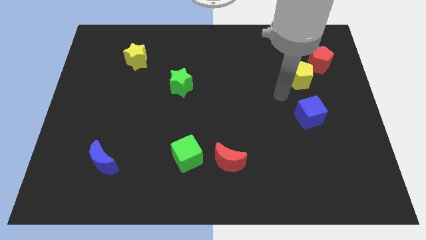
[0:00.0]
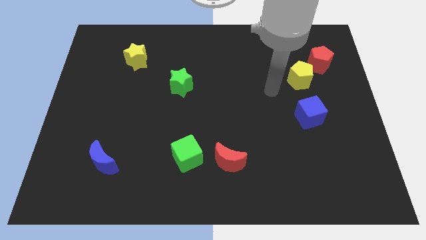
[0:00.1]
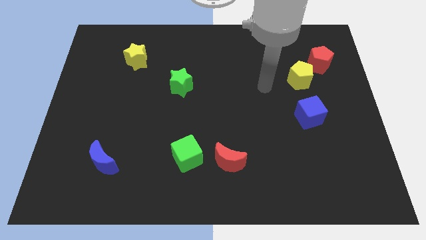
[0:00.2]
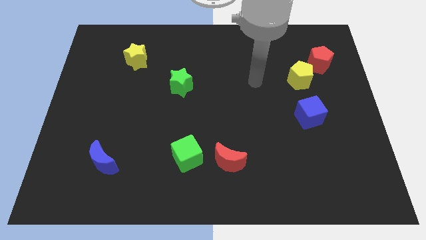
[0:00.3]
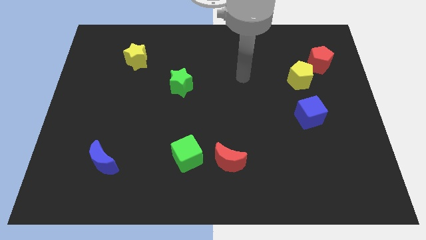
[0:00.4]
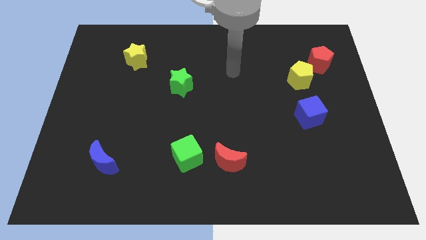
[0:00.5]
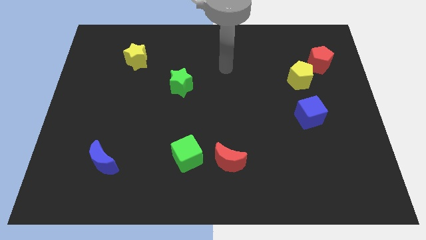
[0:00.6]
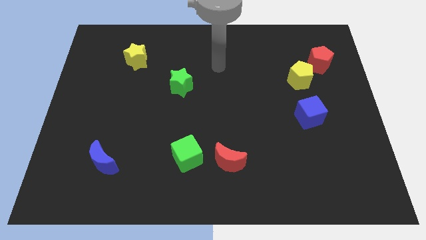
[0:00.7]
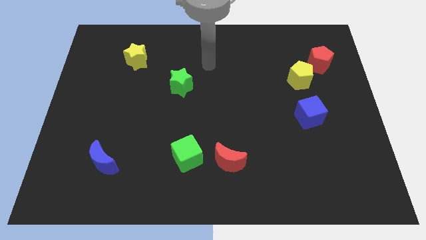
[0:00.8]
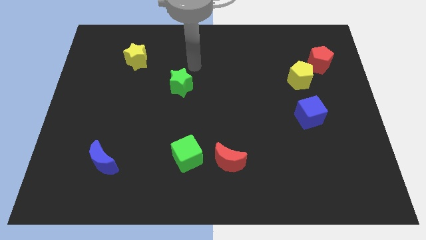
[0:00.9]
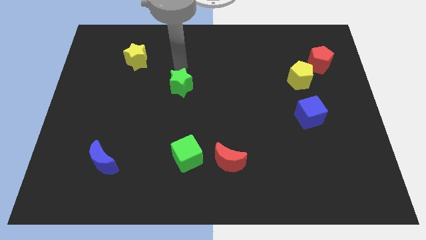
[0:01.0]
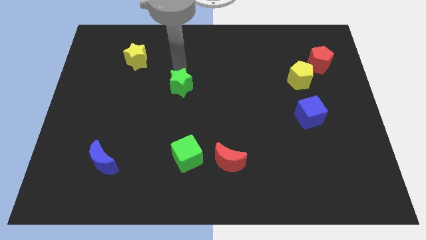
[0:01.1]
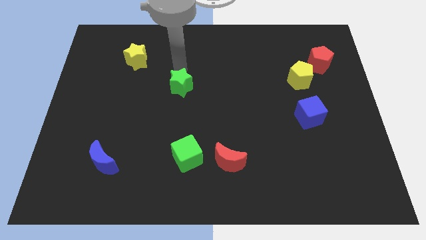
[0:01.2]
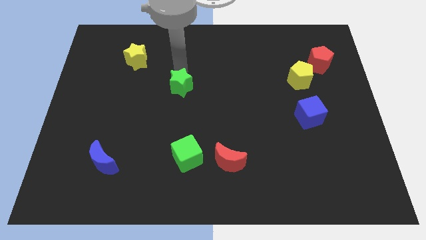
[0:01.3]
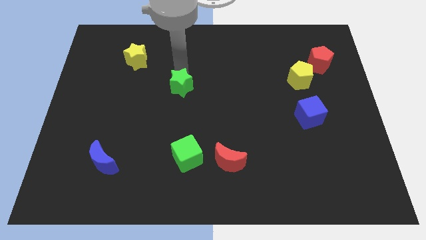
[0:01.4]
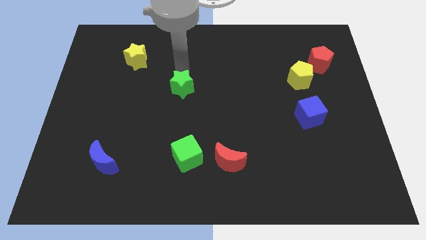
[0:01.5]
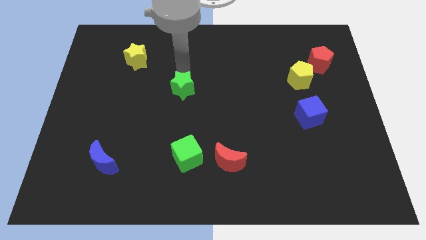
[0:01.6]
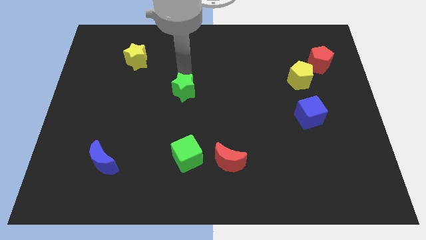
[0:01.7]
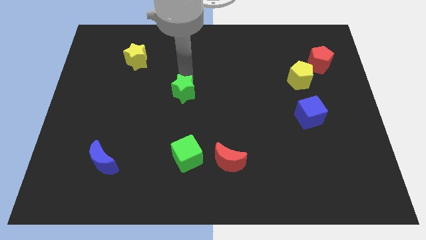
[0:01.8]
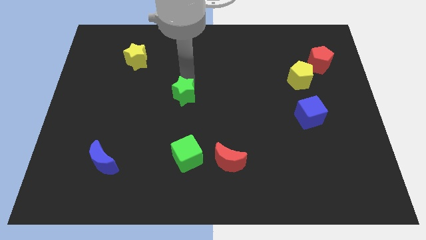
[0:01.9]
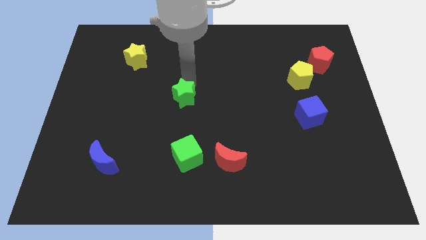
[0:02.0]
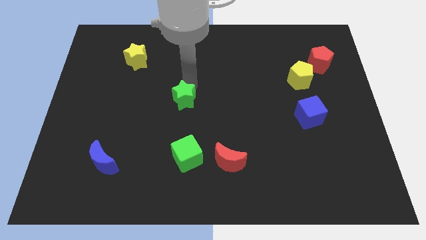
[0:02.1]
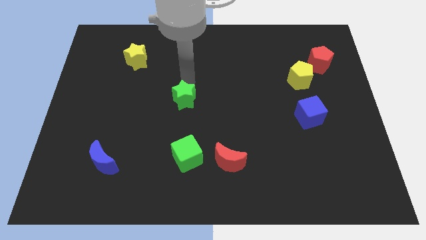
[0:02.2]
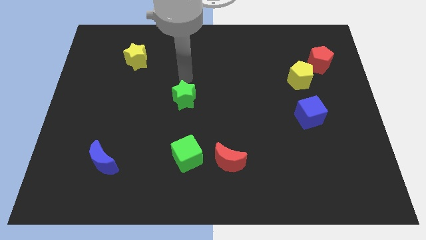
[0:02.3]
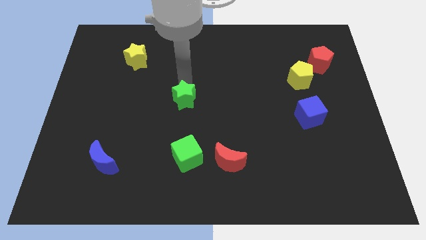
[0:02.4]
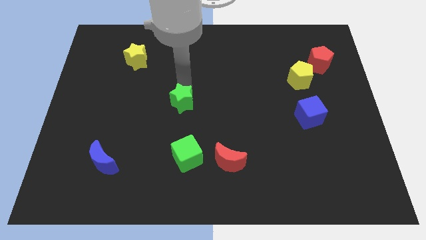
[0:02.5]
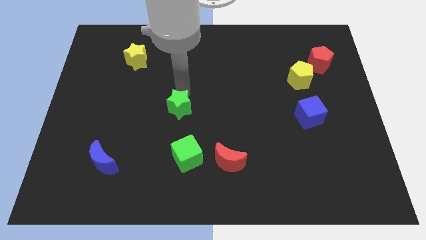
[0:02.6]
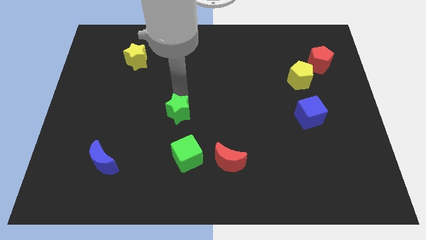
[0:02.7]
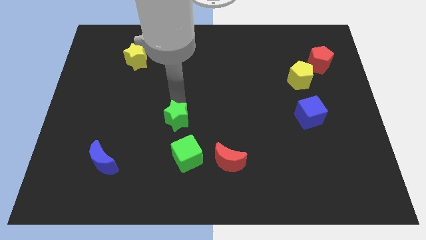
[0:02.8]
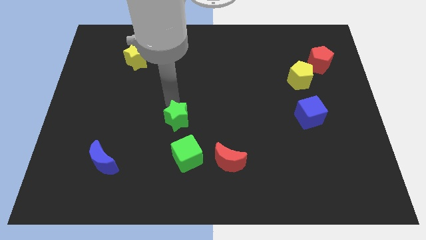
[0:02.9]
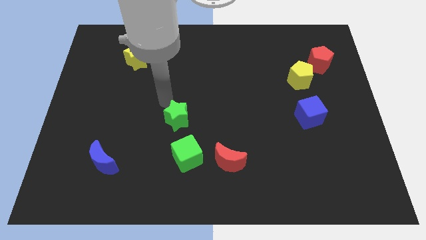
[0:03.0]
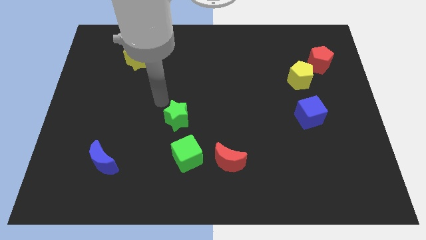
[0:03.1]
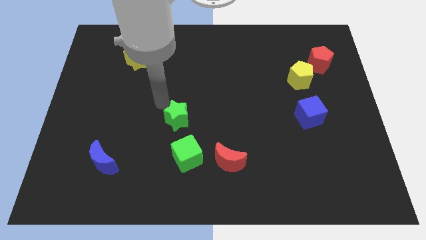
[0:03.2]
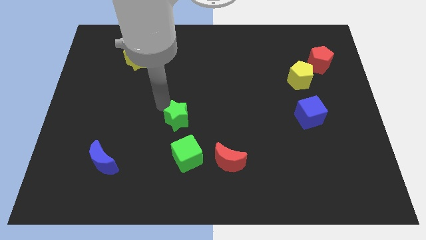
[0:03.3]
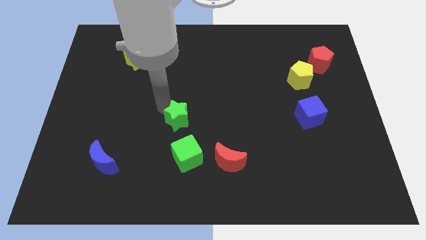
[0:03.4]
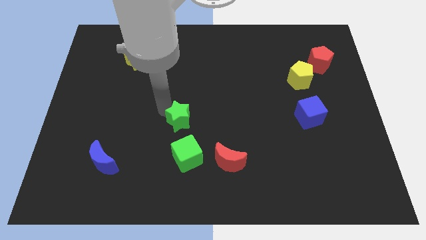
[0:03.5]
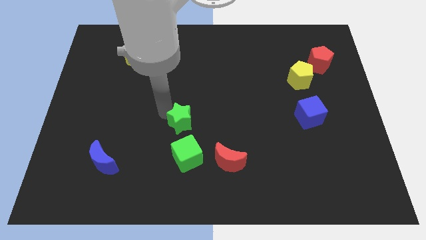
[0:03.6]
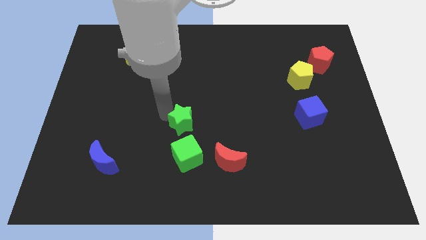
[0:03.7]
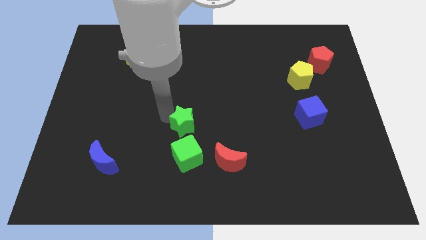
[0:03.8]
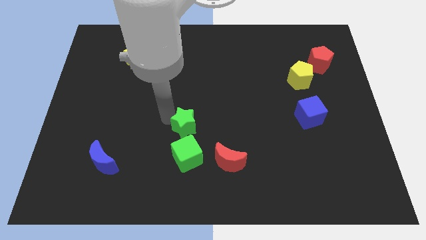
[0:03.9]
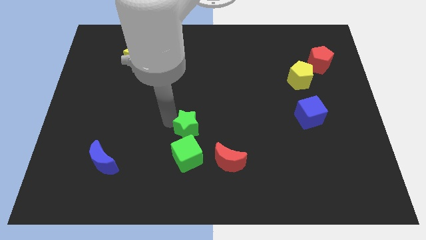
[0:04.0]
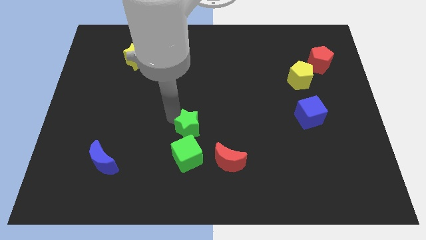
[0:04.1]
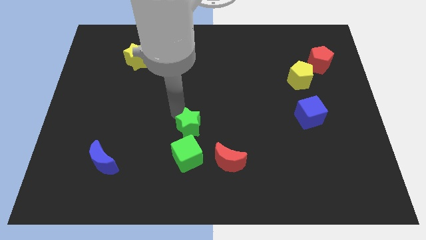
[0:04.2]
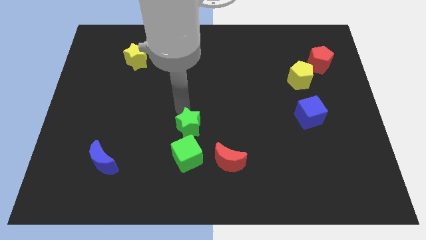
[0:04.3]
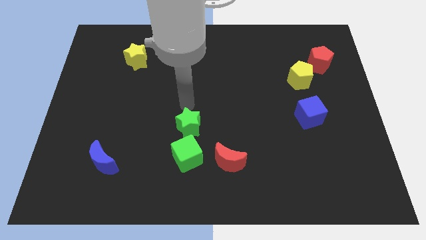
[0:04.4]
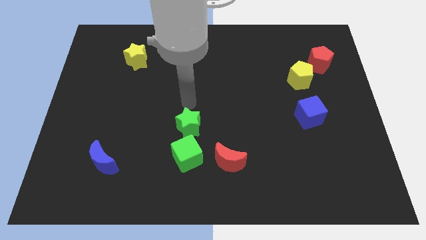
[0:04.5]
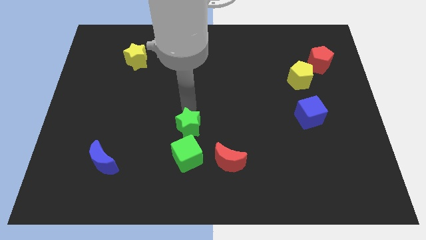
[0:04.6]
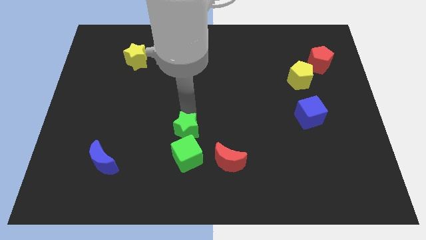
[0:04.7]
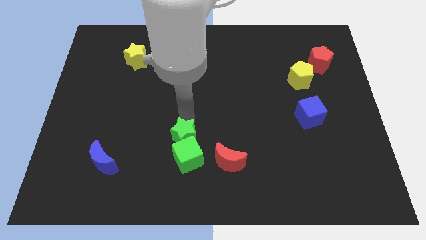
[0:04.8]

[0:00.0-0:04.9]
push the green star towards the green cube

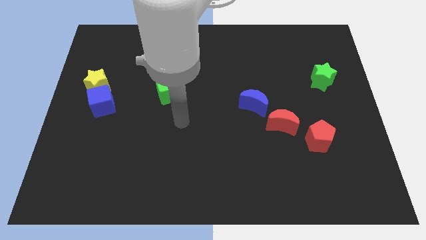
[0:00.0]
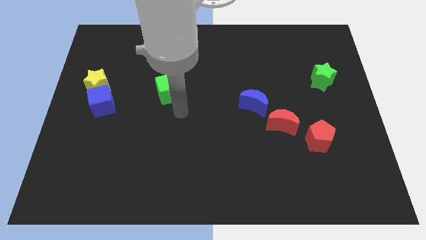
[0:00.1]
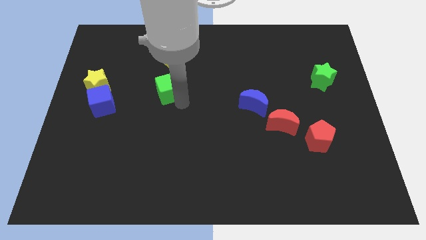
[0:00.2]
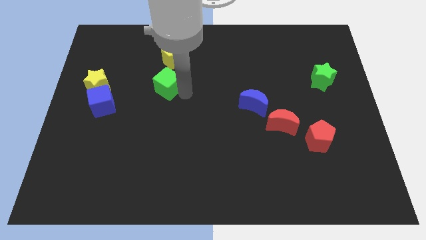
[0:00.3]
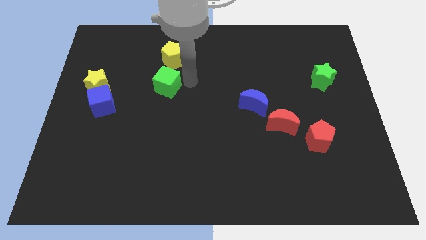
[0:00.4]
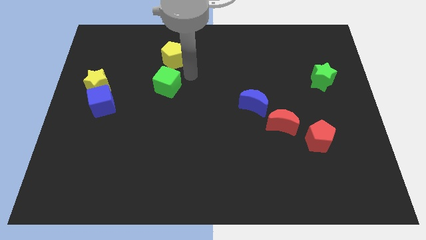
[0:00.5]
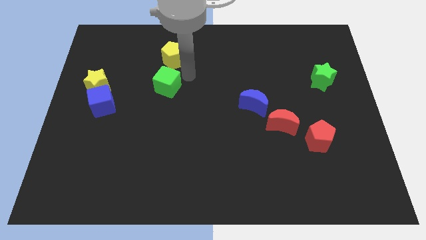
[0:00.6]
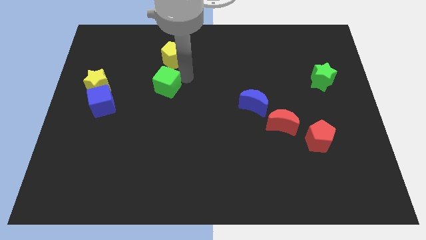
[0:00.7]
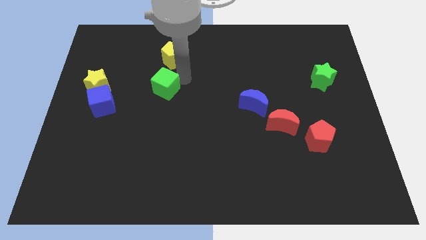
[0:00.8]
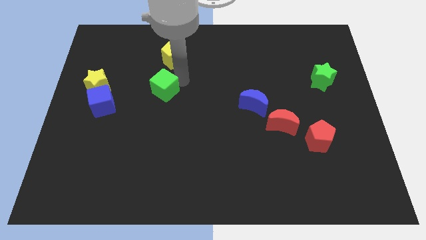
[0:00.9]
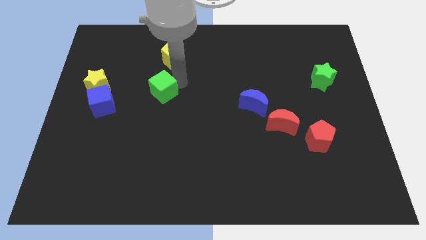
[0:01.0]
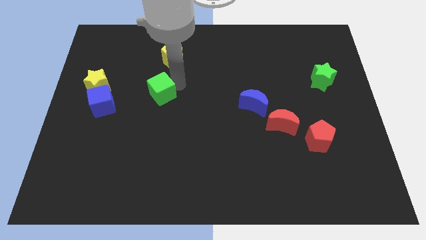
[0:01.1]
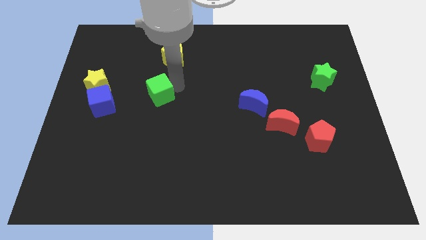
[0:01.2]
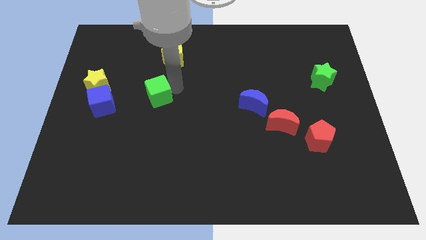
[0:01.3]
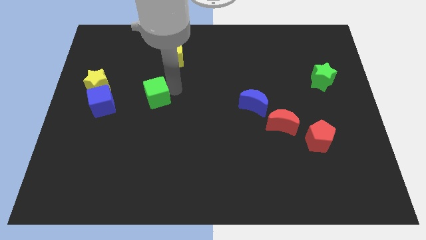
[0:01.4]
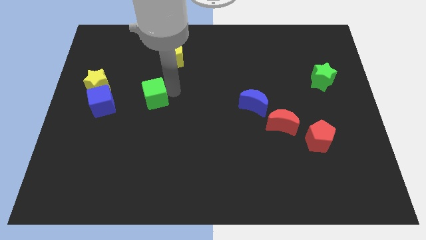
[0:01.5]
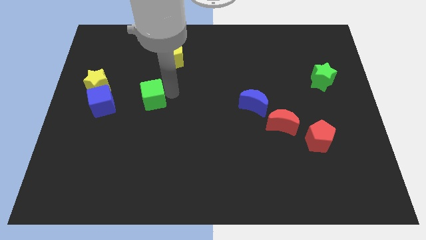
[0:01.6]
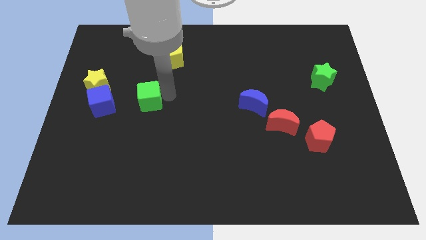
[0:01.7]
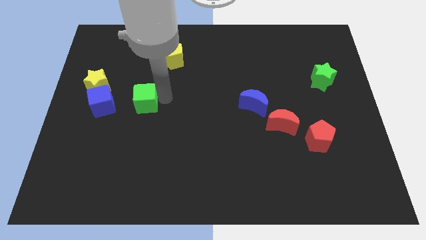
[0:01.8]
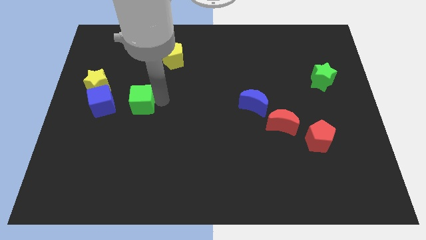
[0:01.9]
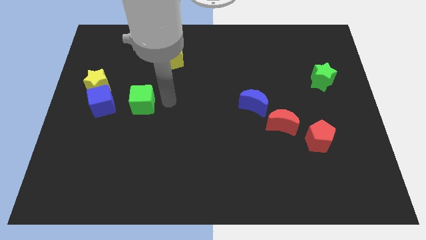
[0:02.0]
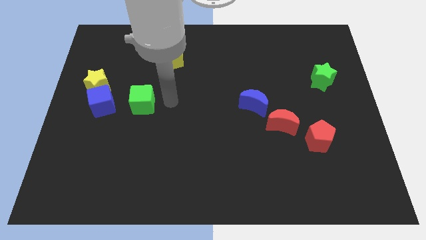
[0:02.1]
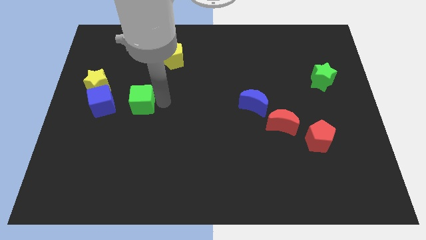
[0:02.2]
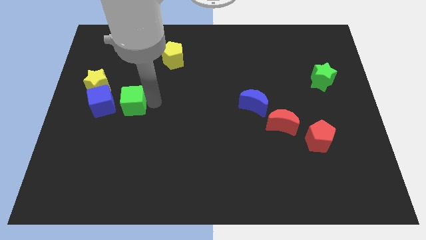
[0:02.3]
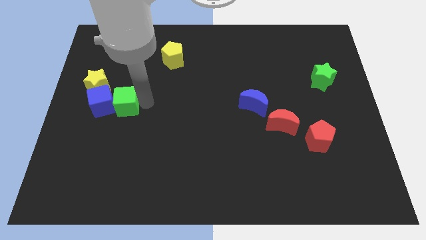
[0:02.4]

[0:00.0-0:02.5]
move the green cube next to the blue cube
